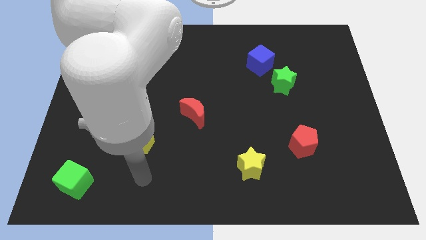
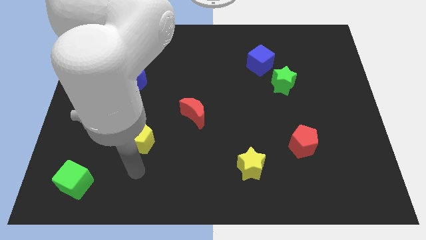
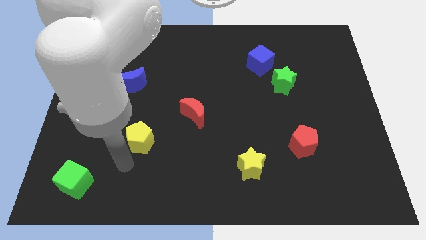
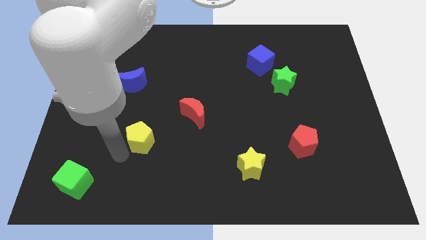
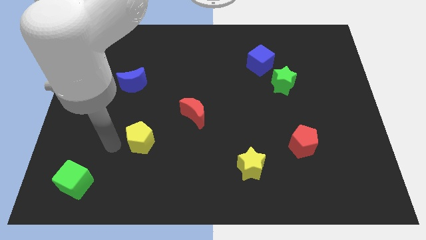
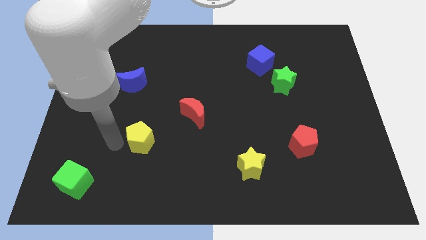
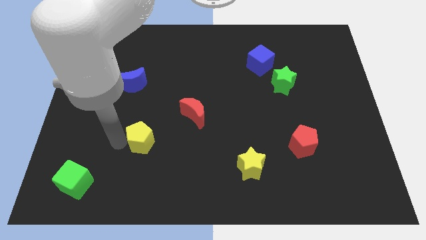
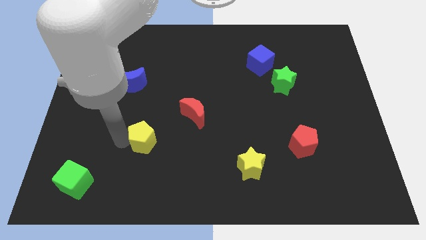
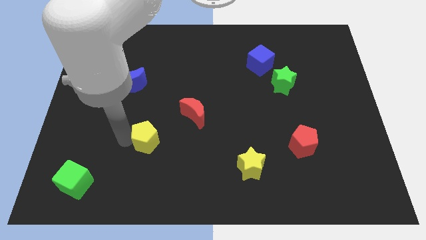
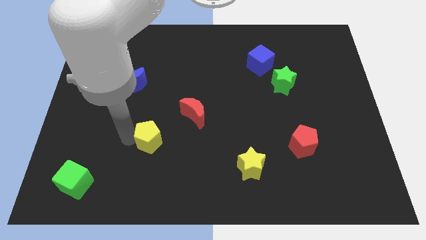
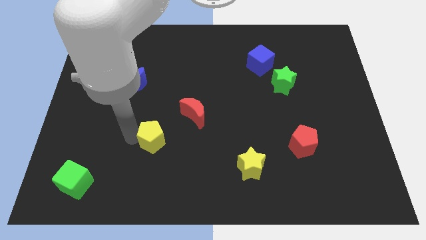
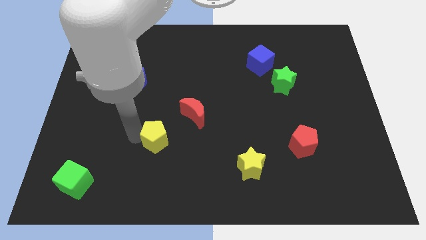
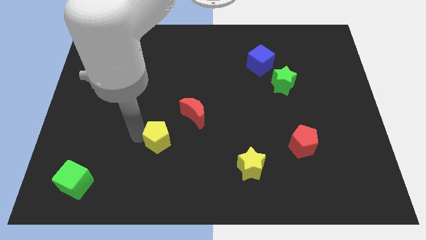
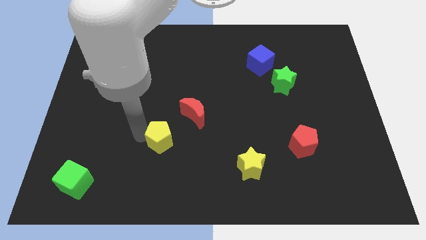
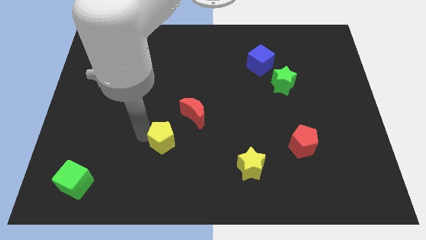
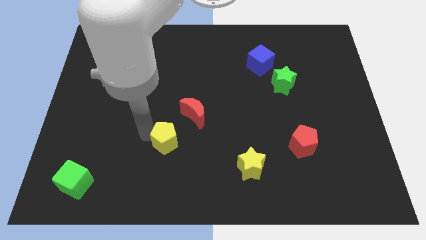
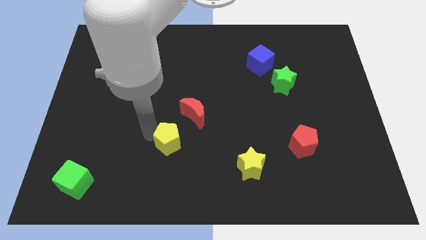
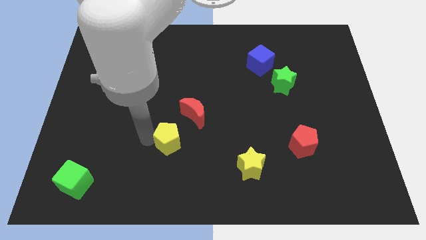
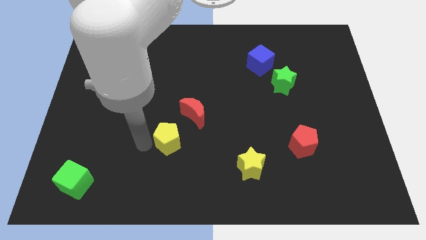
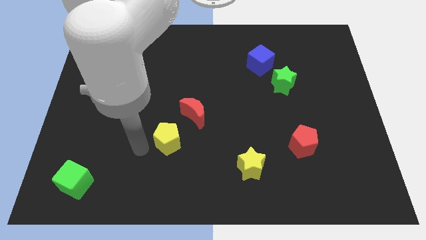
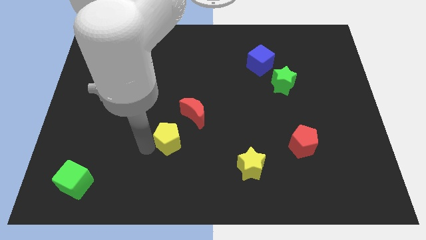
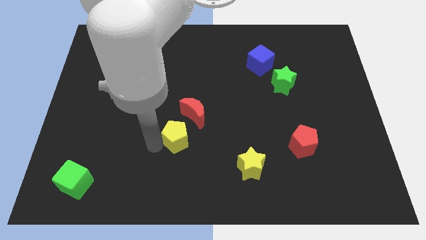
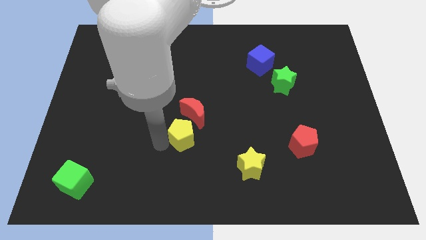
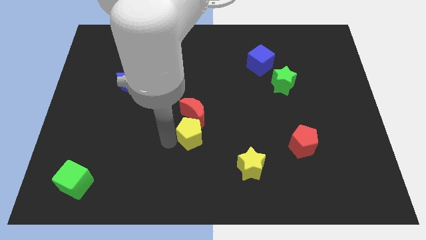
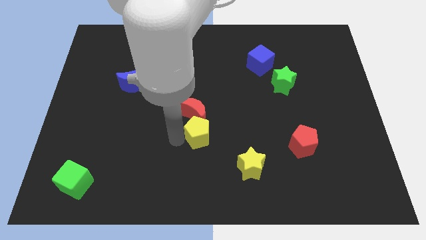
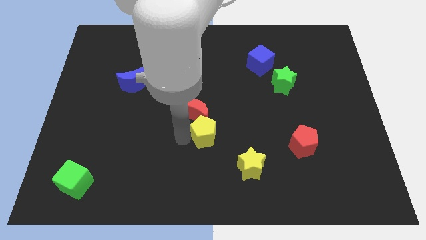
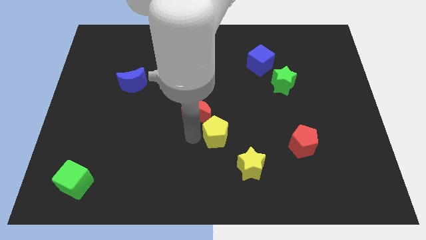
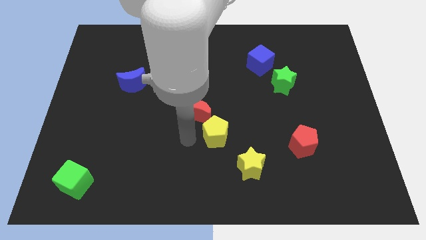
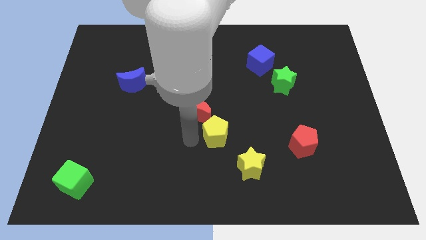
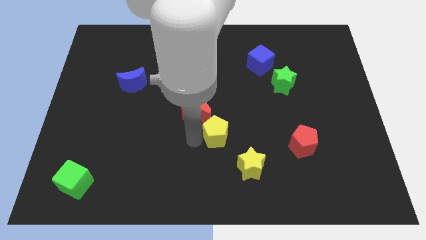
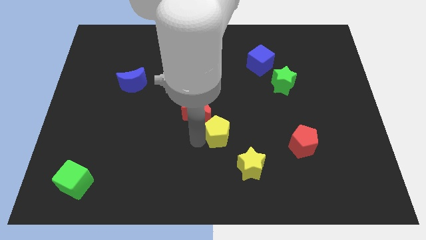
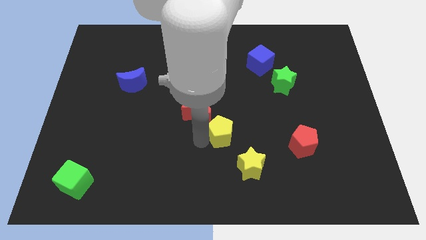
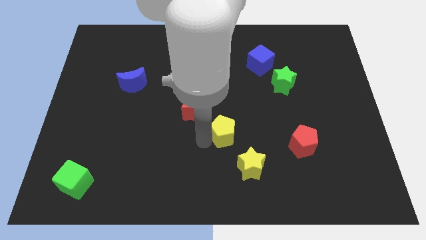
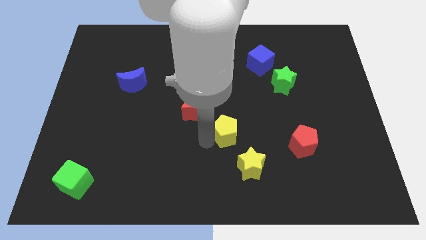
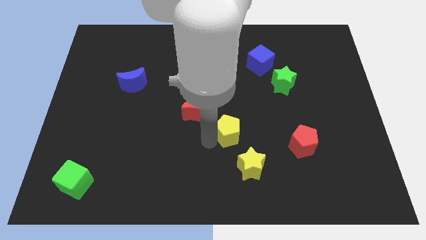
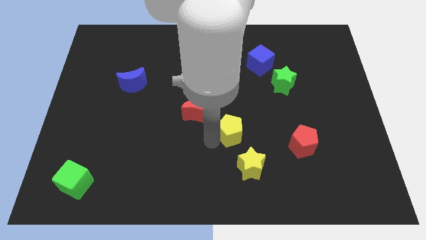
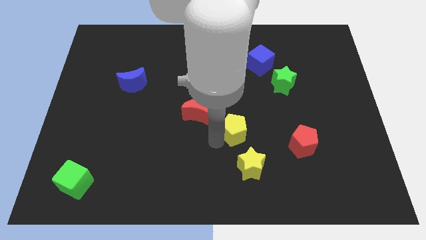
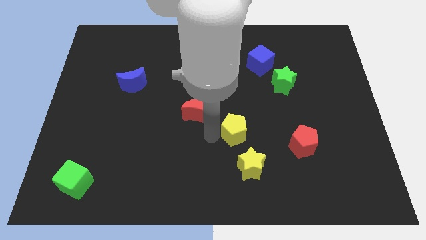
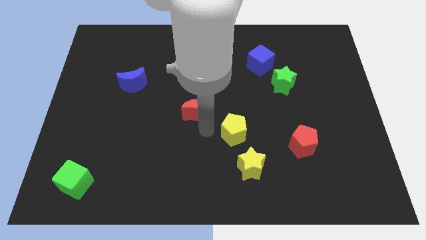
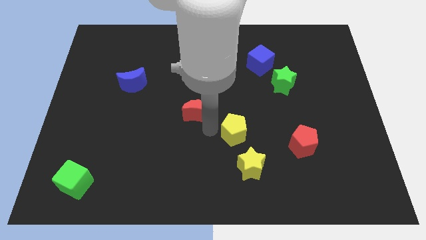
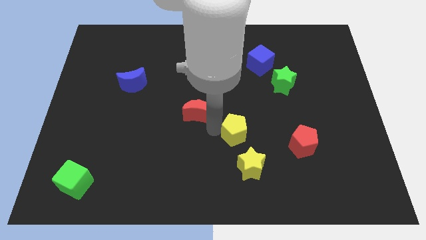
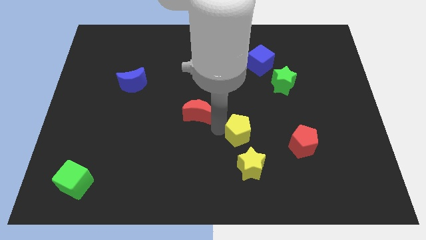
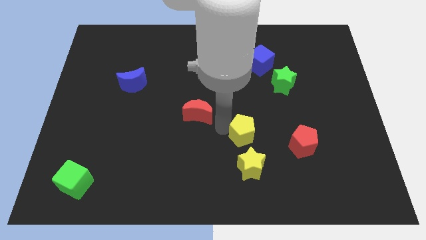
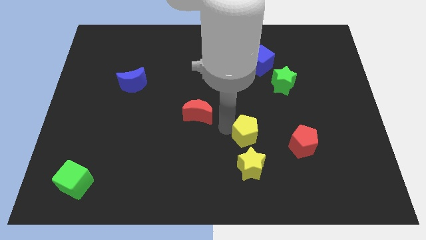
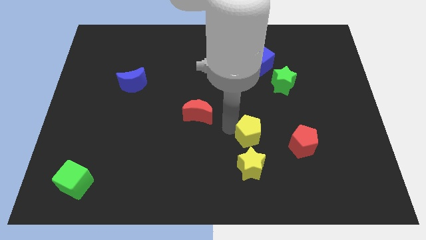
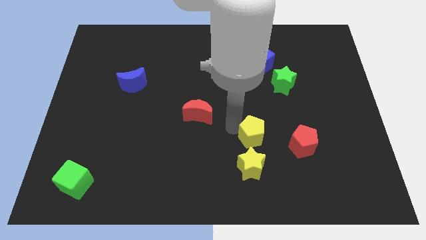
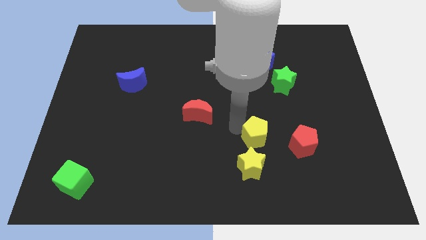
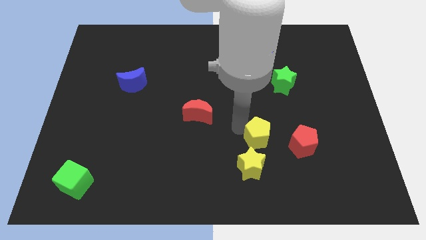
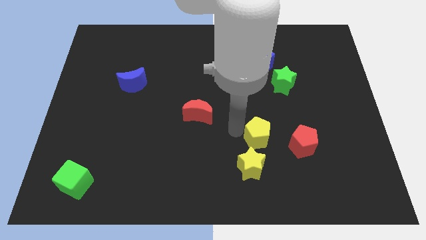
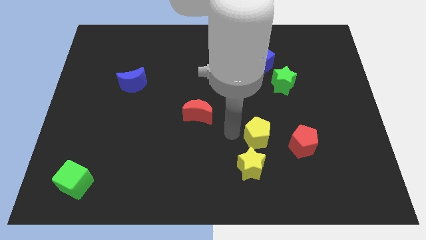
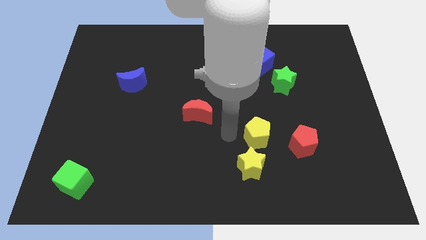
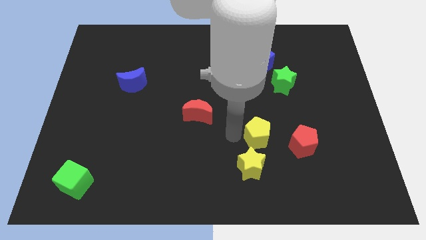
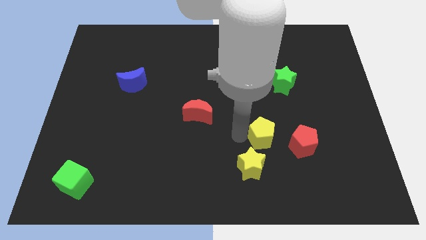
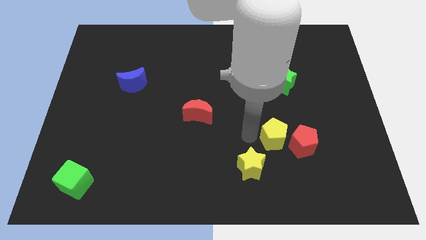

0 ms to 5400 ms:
push the yellow pentagon towards the red pentagon

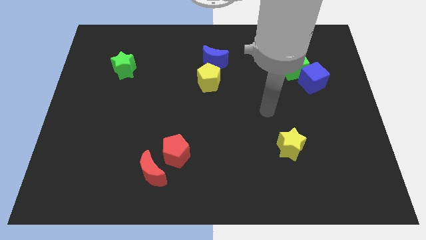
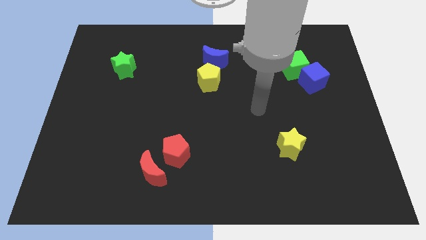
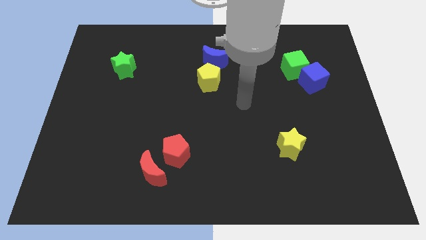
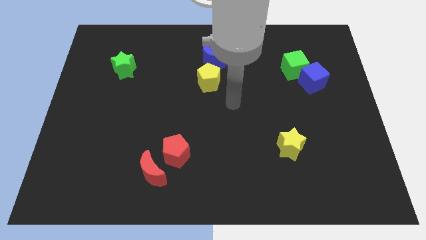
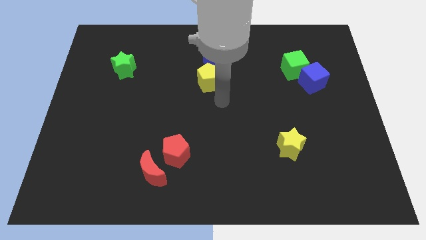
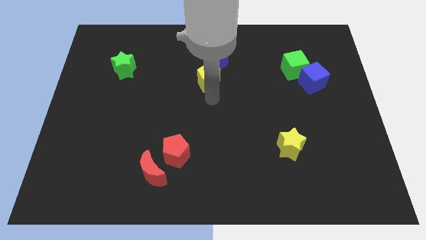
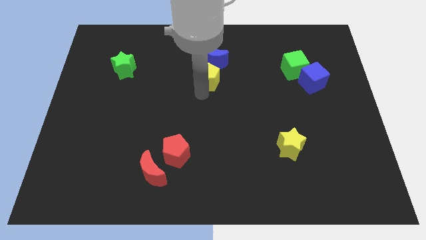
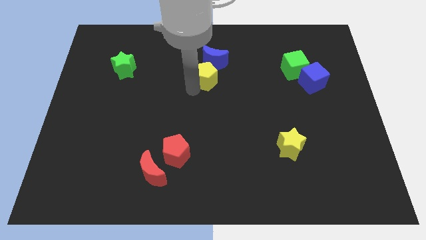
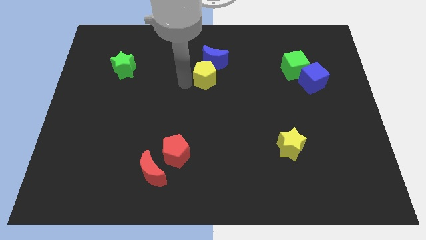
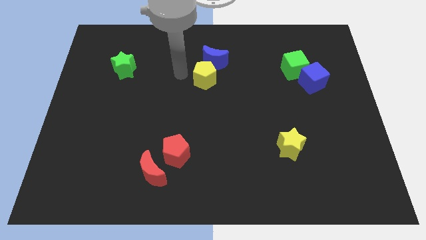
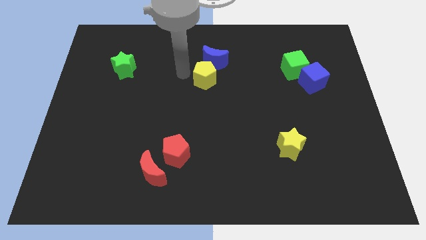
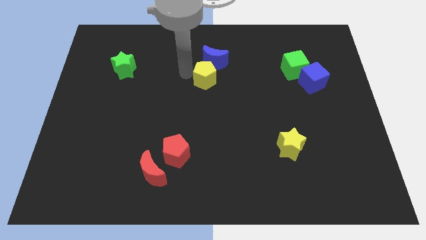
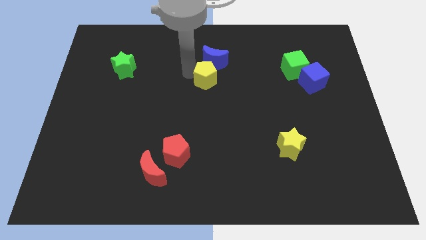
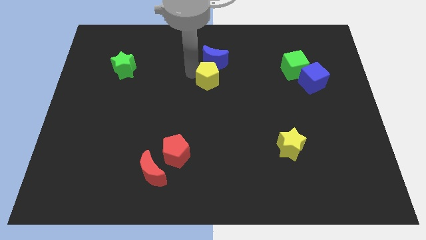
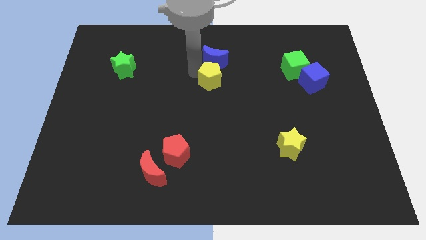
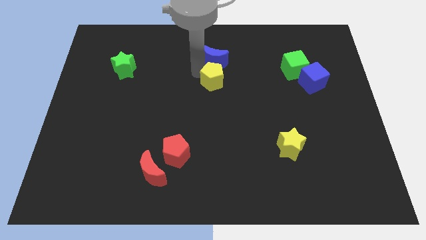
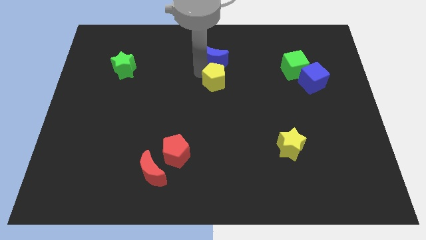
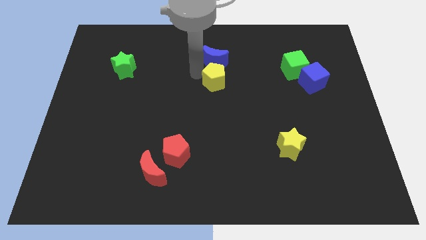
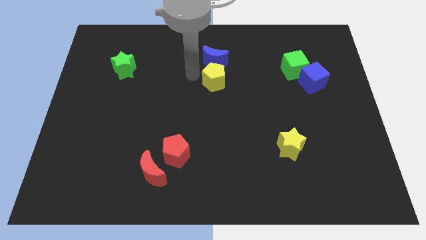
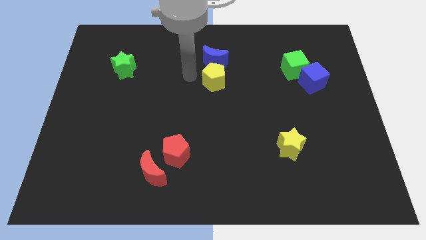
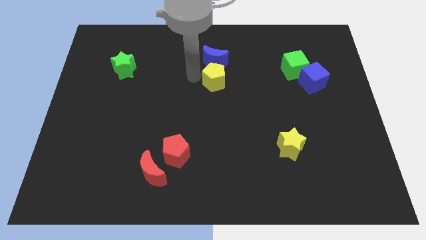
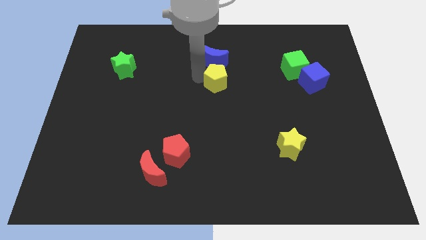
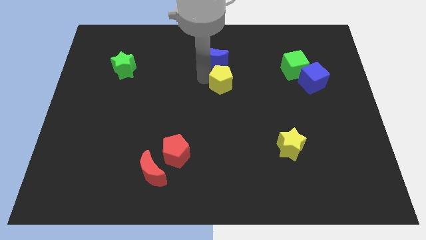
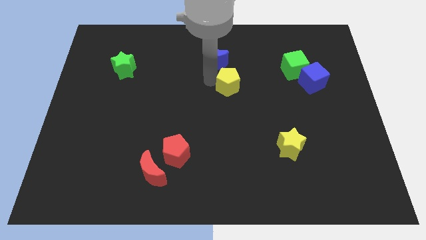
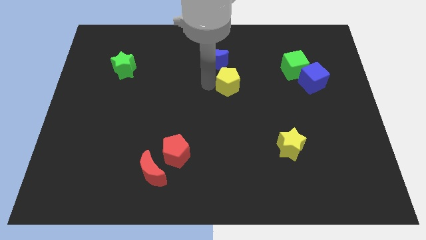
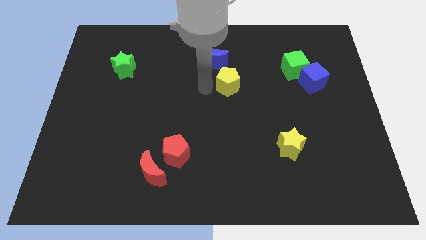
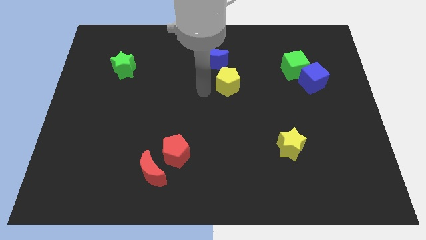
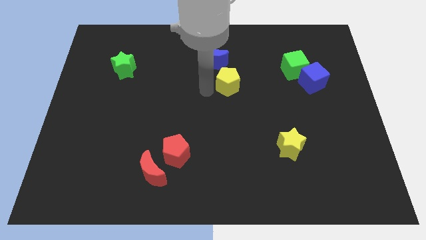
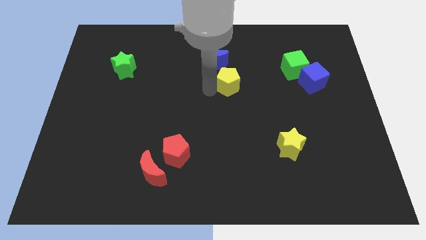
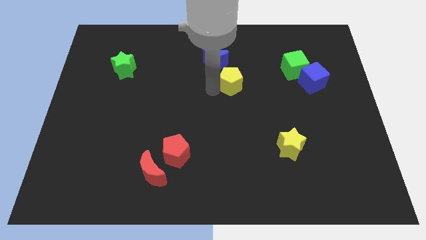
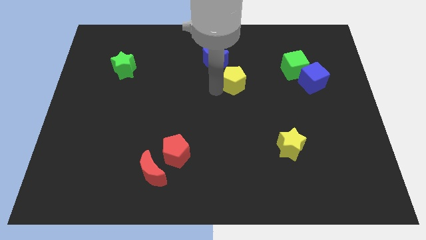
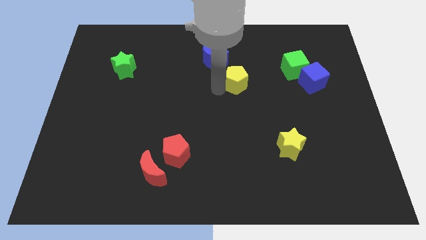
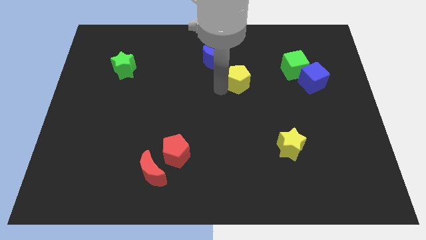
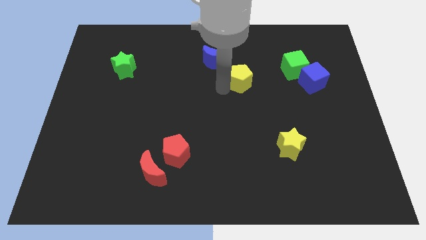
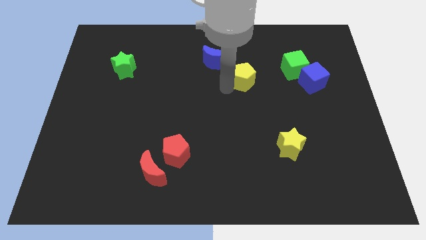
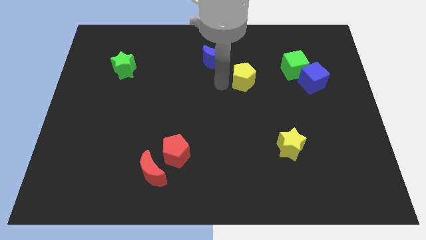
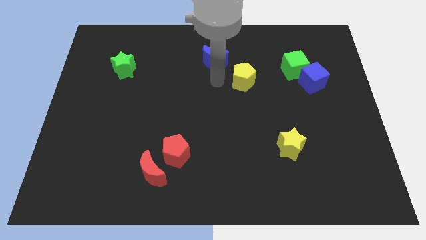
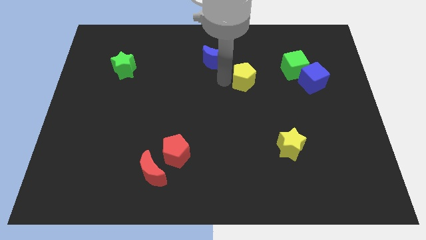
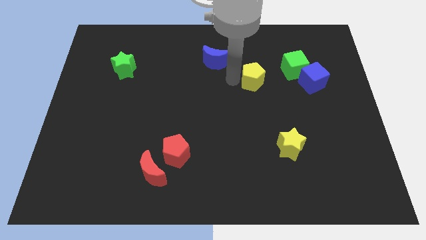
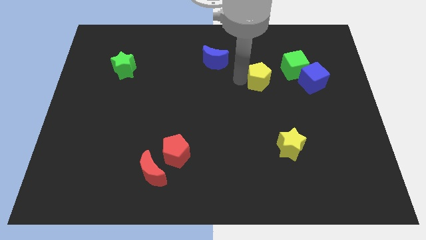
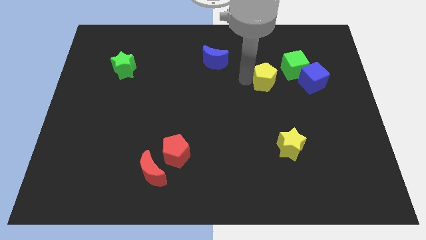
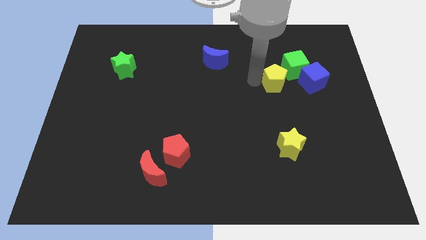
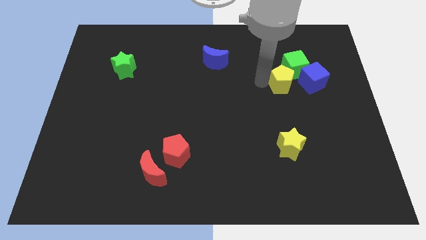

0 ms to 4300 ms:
move the yellow pentagon to the green cube
